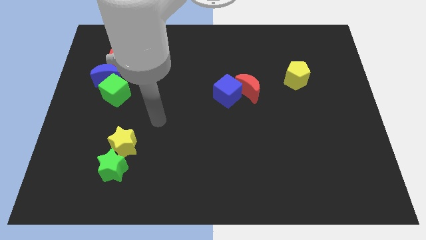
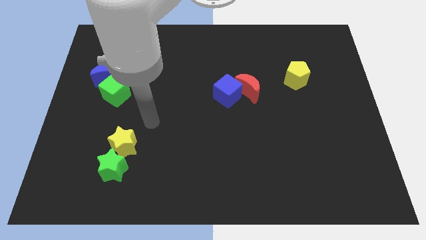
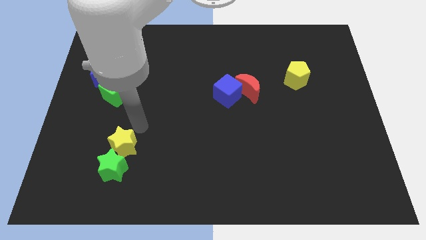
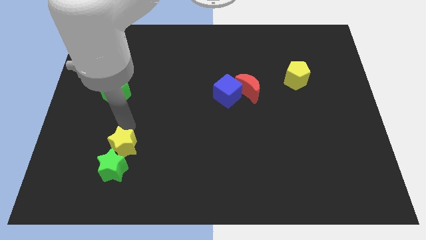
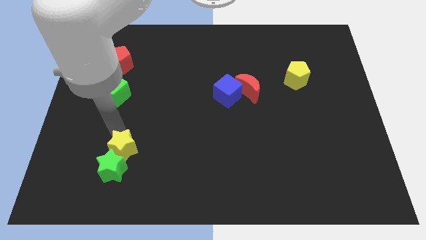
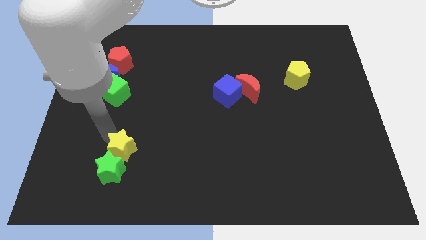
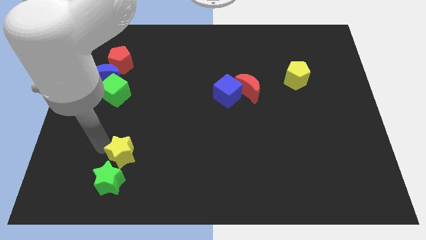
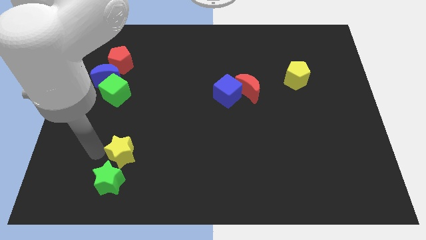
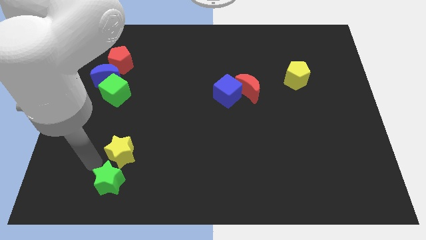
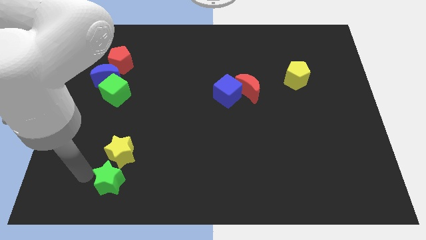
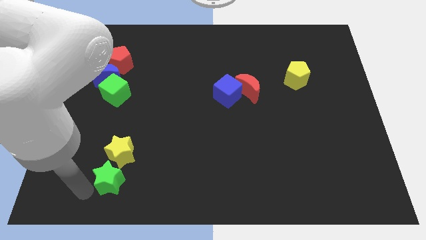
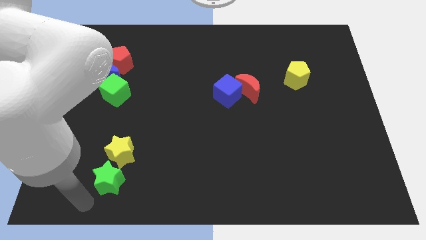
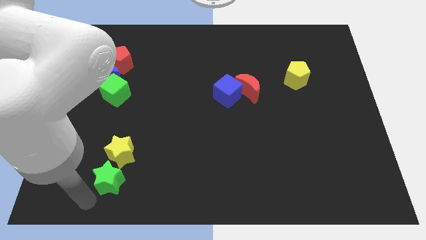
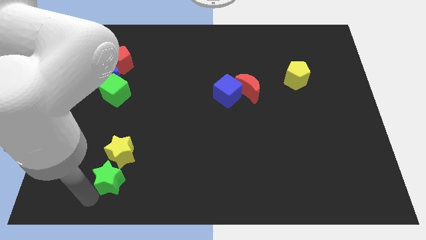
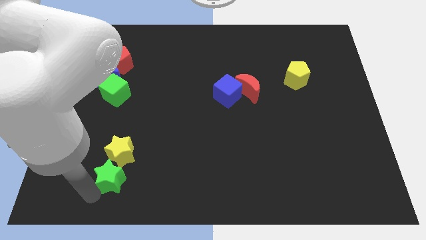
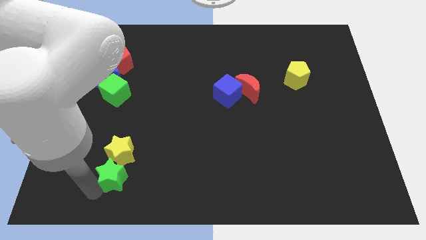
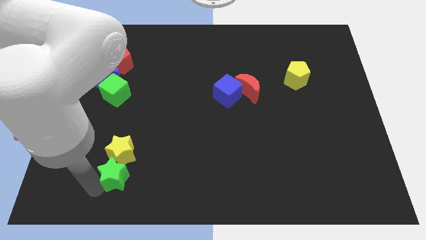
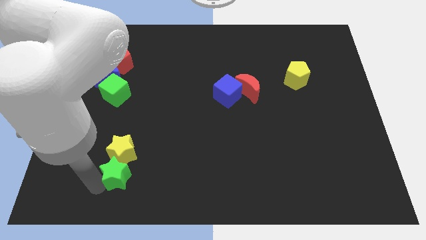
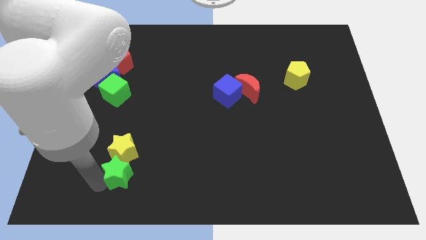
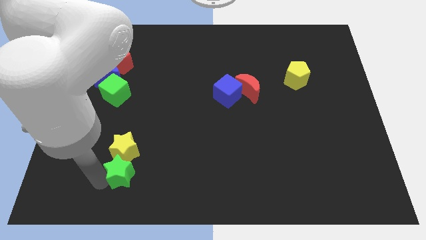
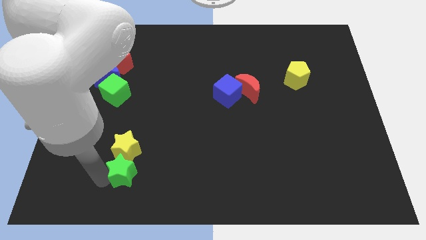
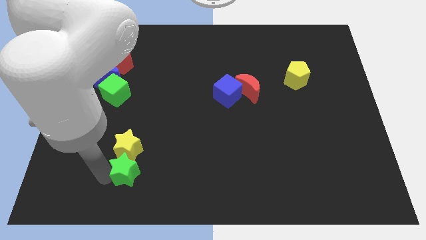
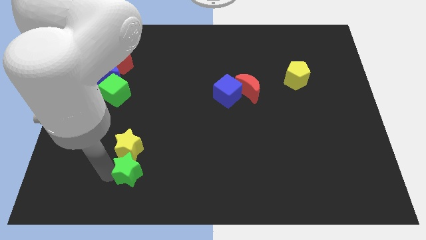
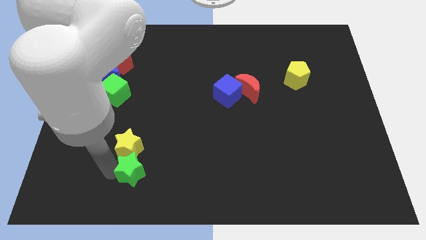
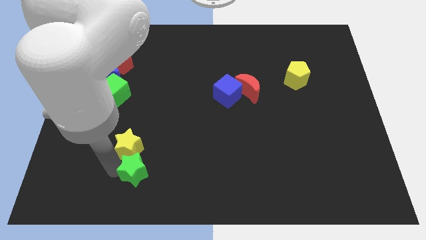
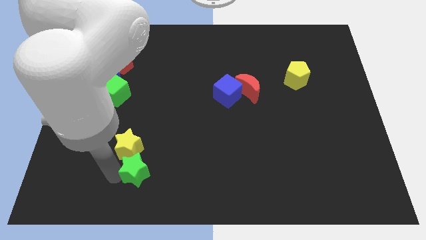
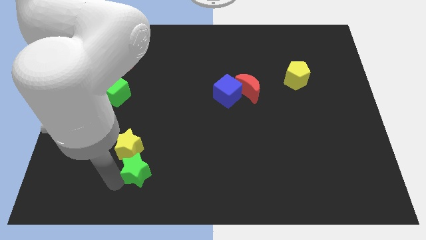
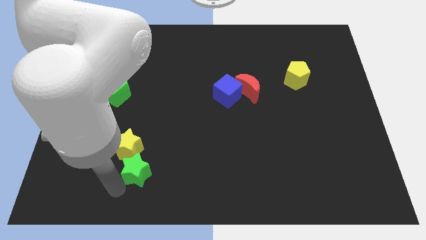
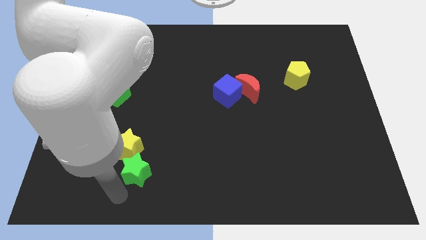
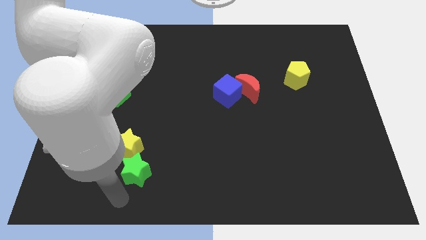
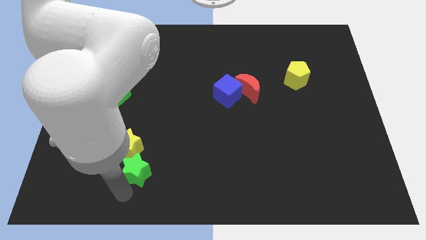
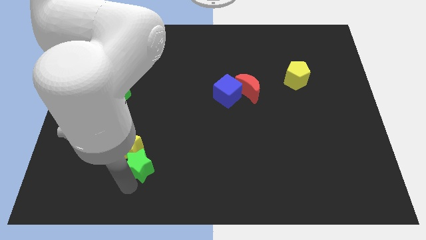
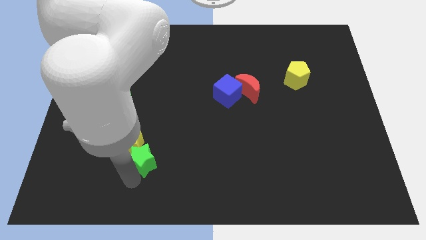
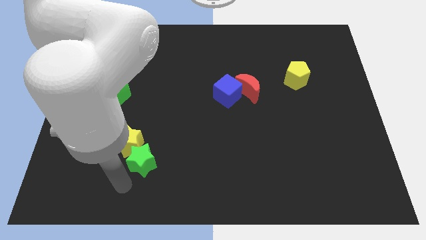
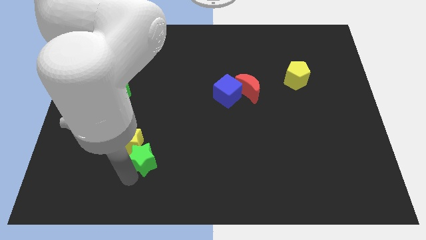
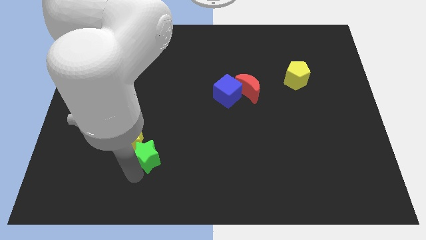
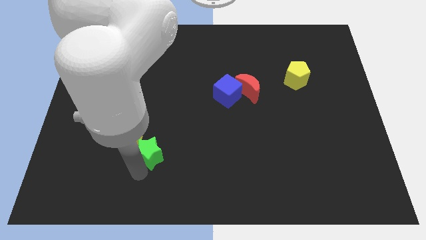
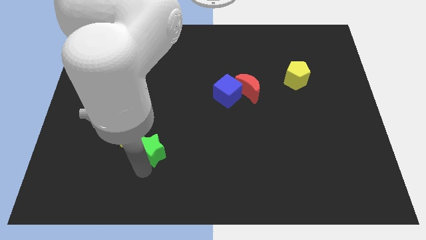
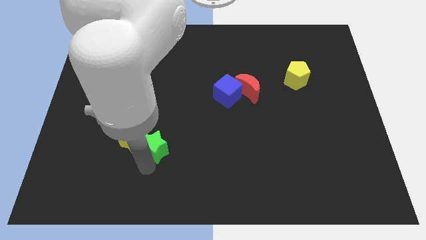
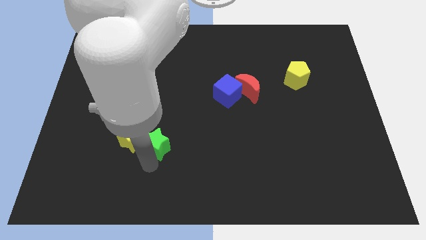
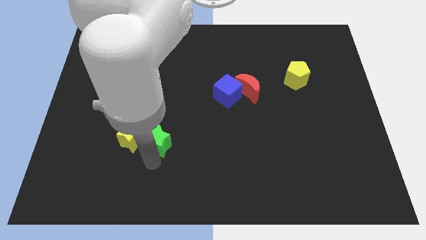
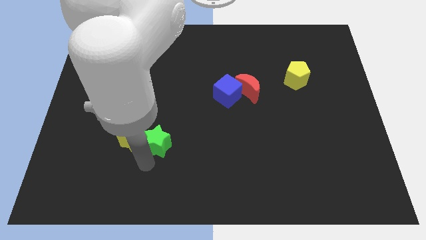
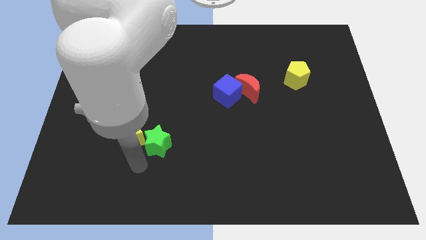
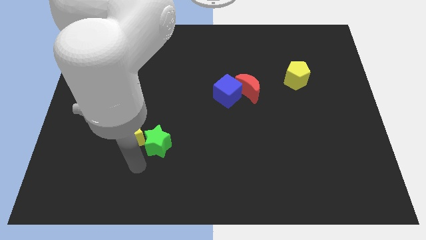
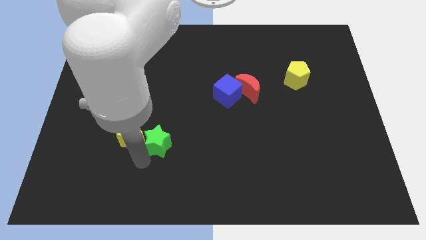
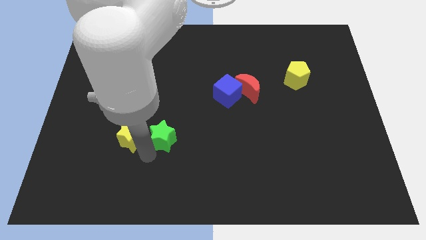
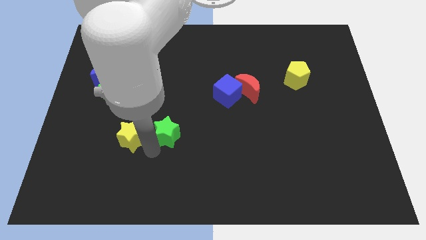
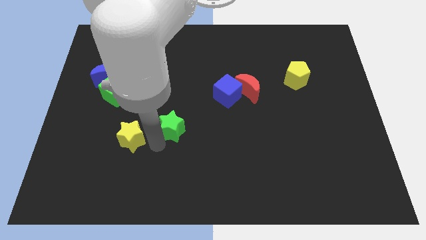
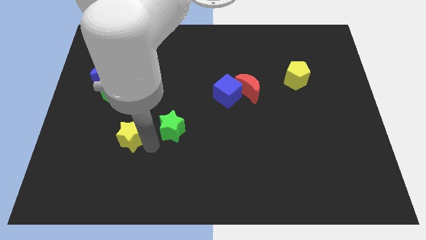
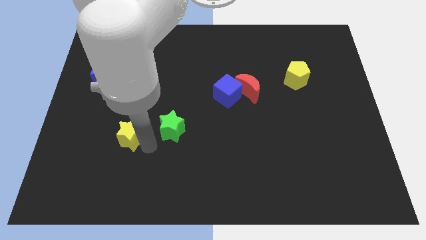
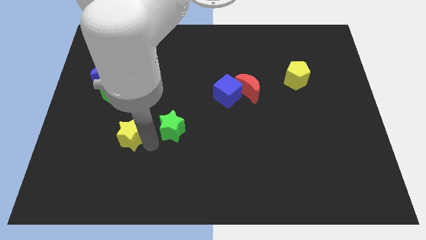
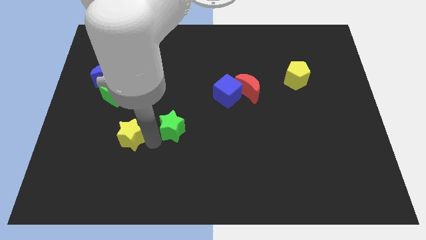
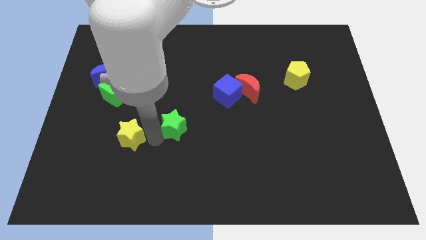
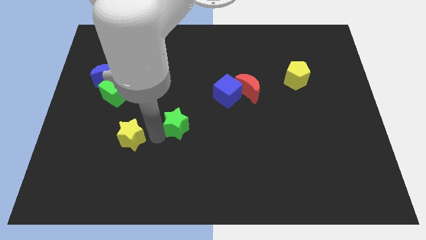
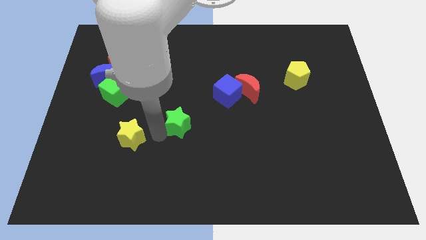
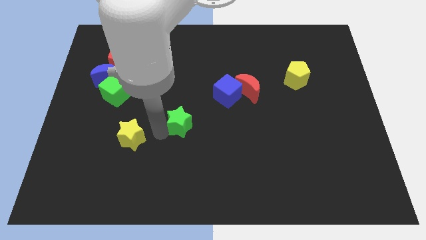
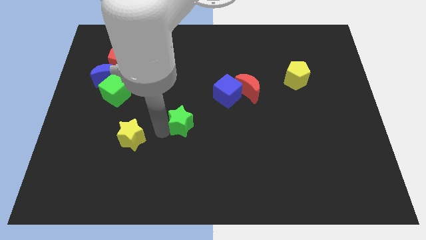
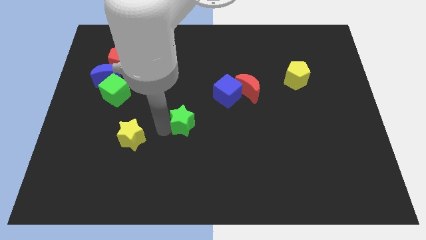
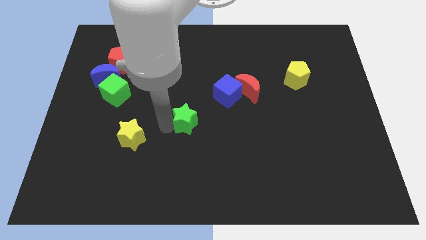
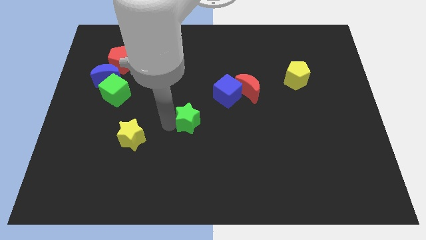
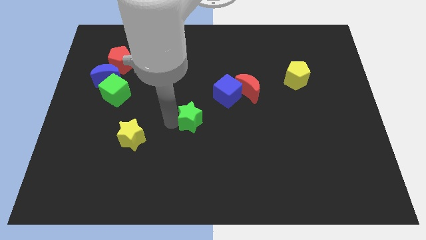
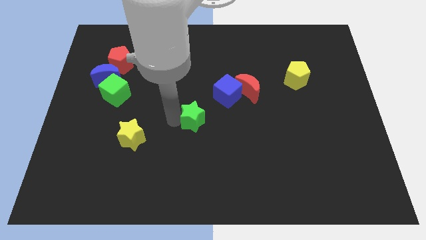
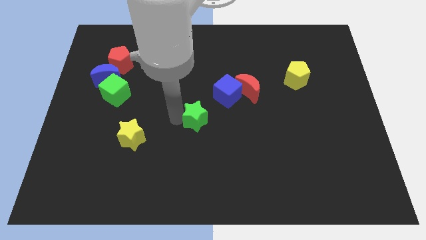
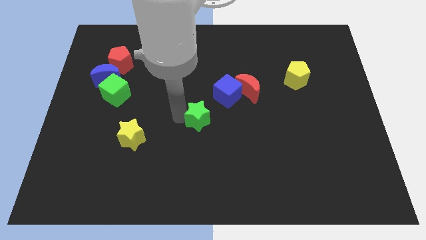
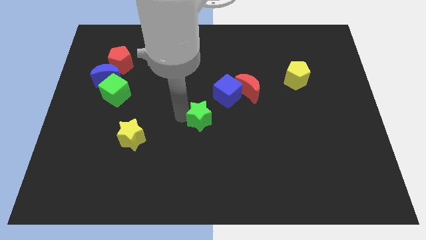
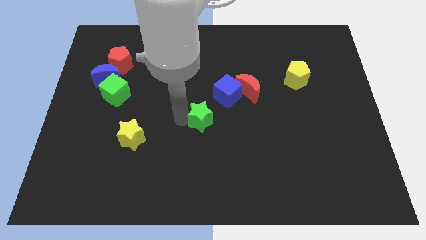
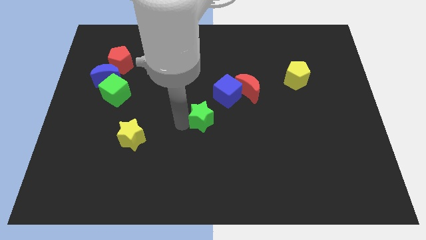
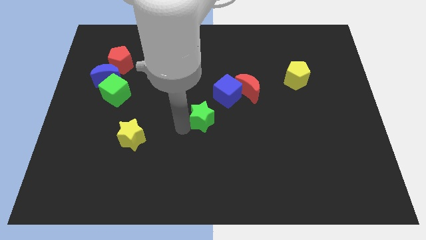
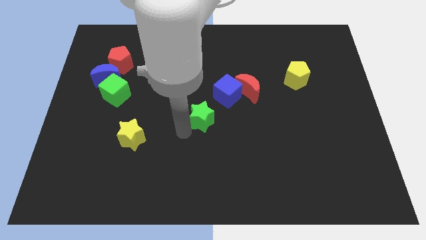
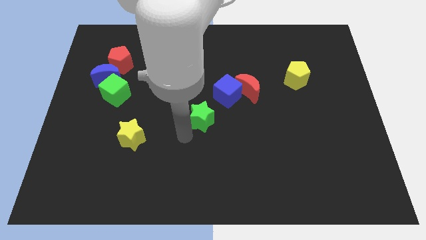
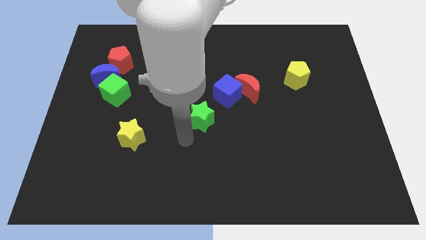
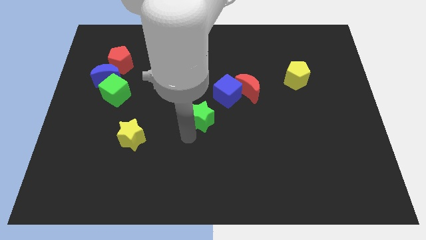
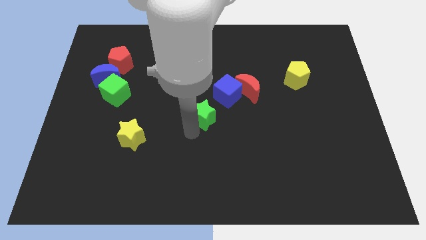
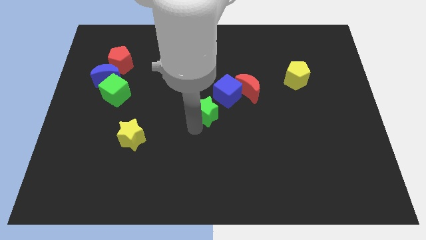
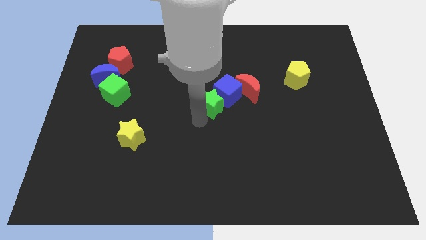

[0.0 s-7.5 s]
move the green star close to the blue cube
